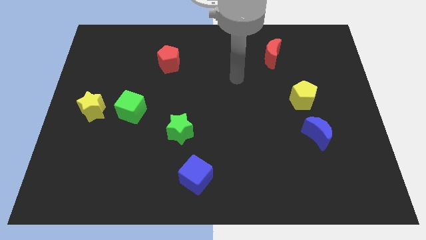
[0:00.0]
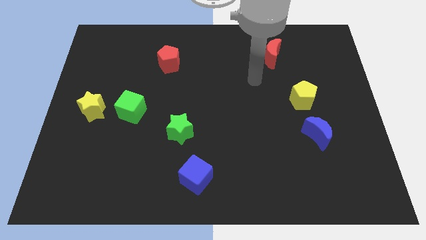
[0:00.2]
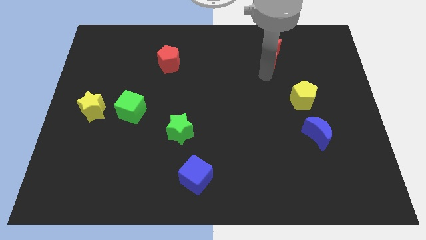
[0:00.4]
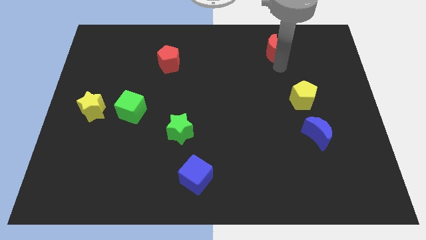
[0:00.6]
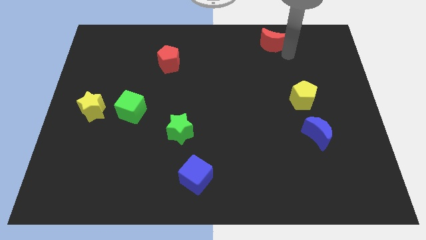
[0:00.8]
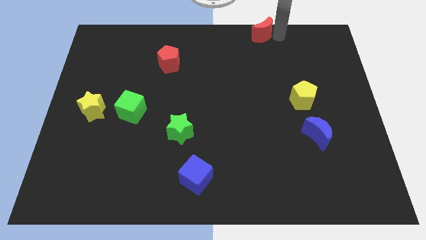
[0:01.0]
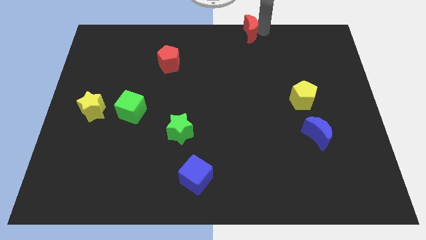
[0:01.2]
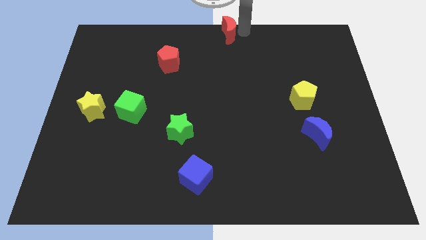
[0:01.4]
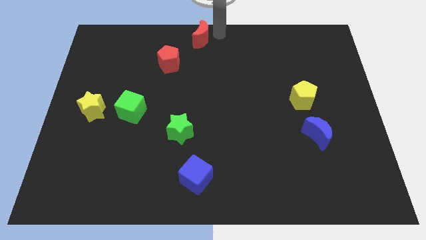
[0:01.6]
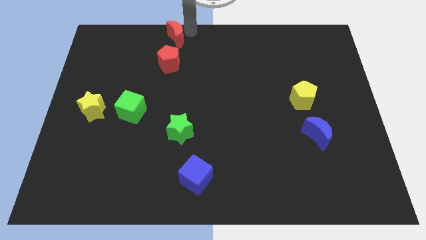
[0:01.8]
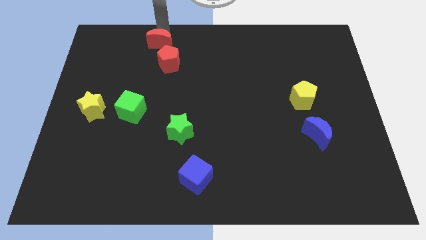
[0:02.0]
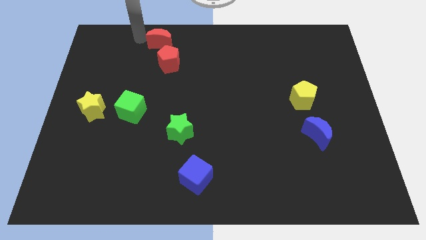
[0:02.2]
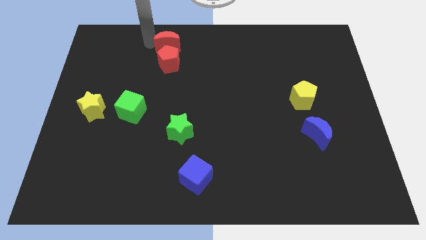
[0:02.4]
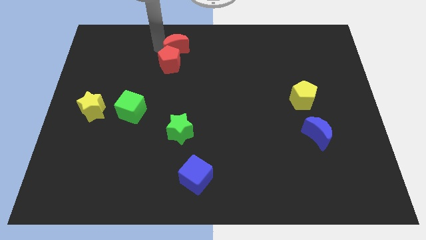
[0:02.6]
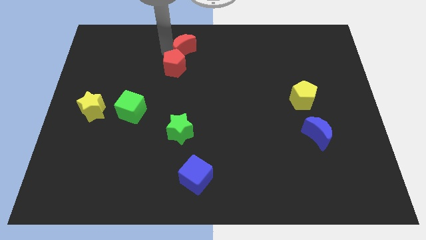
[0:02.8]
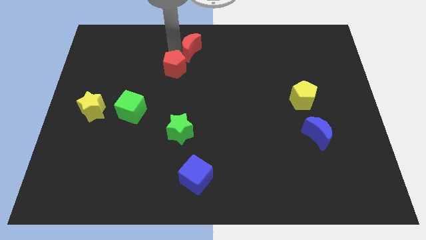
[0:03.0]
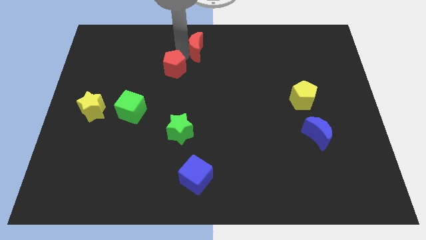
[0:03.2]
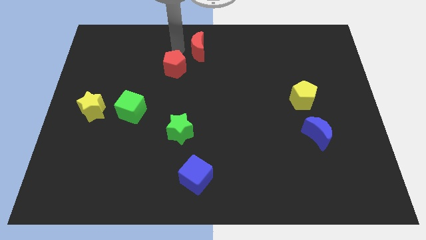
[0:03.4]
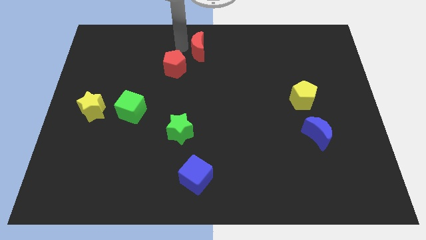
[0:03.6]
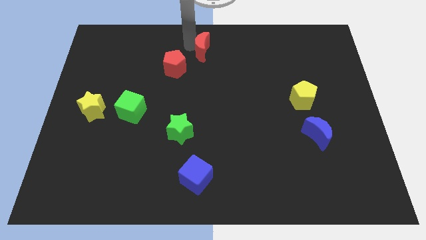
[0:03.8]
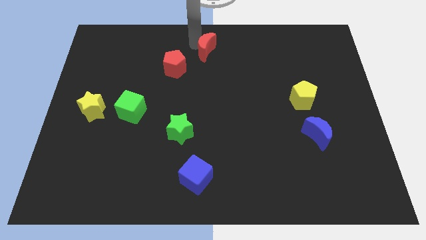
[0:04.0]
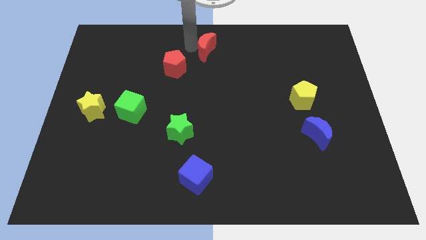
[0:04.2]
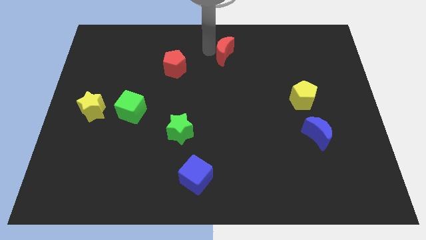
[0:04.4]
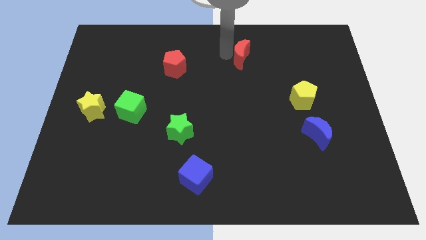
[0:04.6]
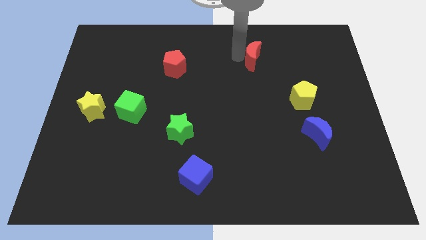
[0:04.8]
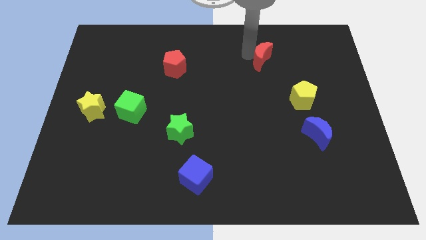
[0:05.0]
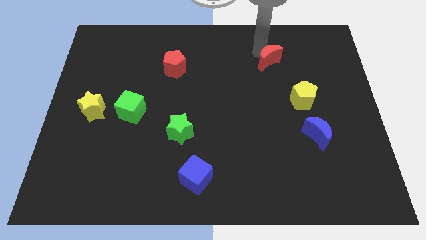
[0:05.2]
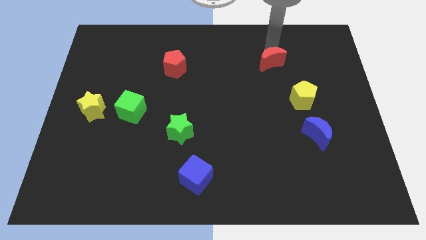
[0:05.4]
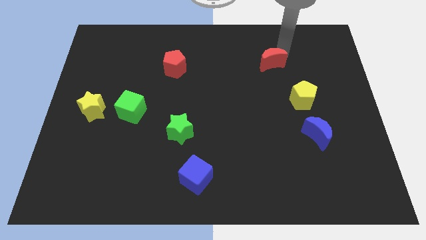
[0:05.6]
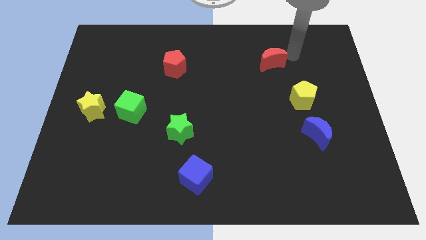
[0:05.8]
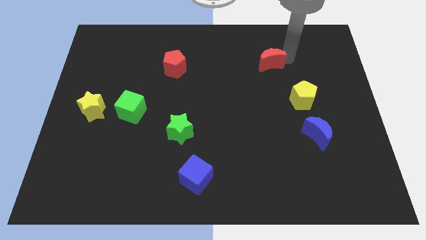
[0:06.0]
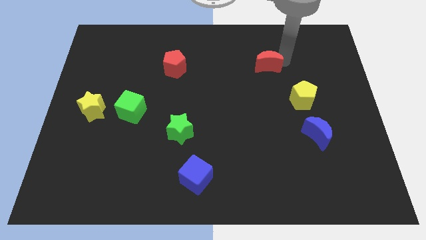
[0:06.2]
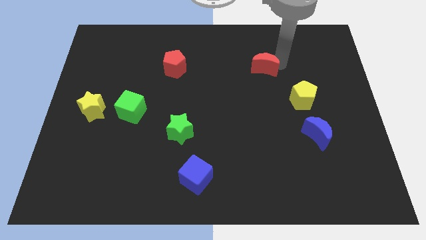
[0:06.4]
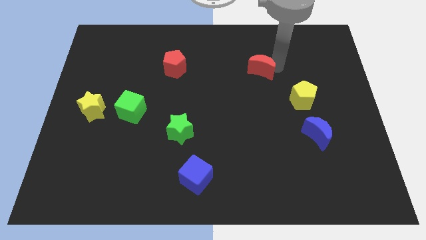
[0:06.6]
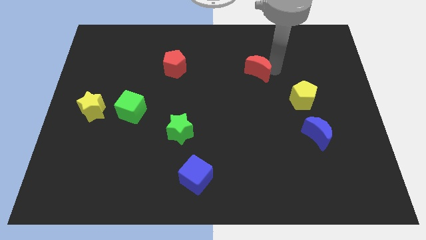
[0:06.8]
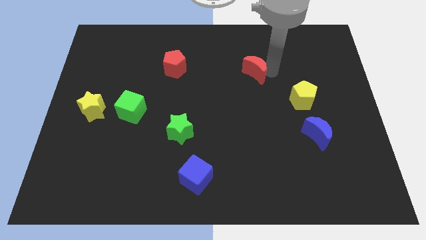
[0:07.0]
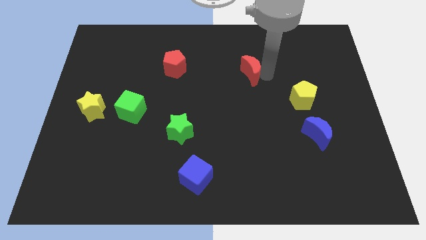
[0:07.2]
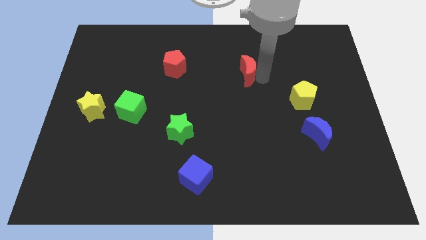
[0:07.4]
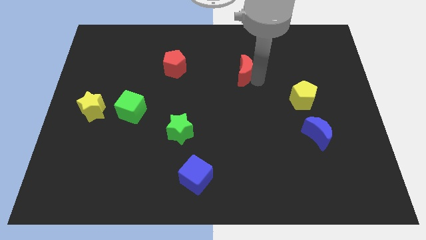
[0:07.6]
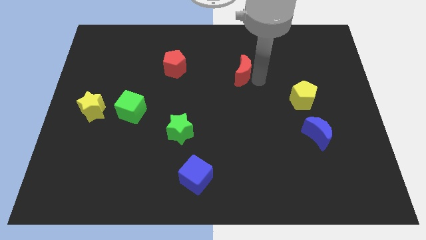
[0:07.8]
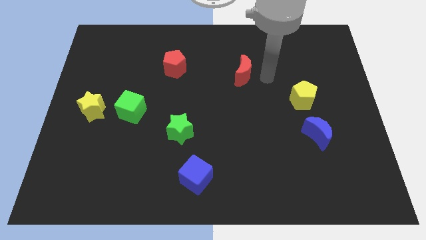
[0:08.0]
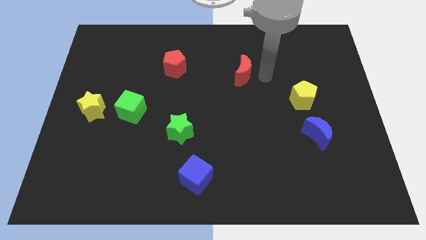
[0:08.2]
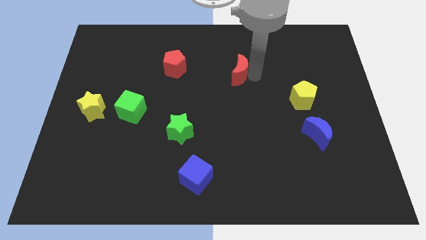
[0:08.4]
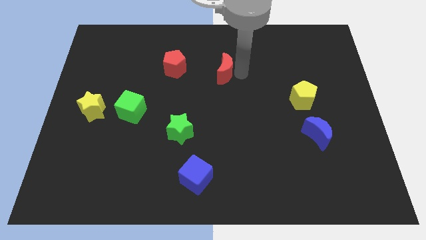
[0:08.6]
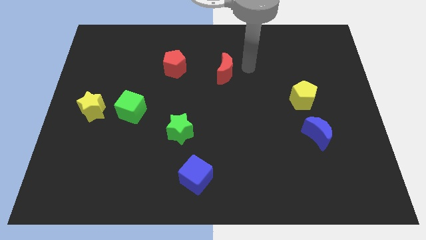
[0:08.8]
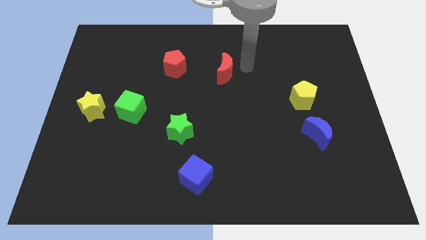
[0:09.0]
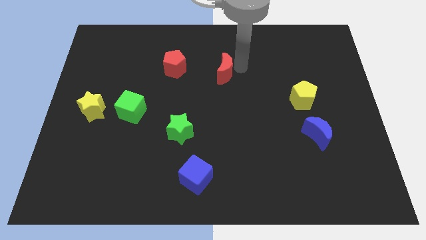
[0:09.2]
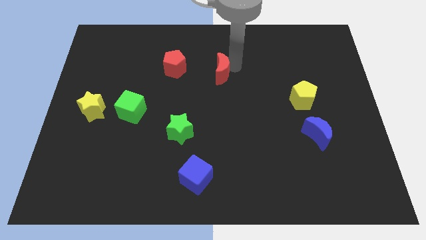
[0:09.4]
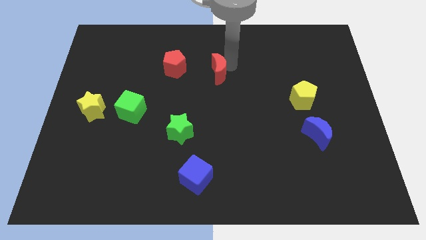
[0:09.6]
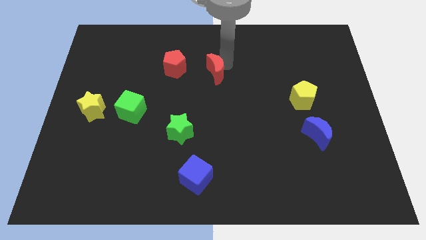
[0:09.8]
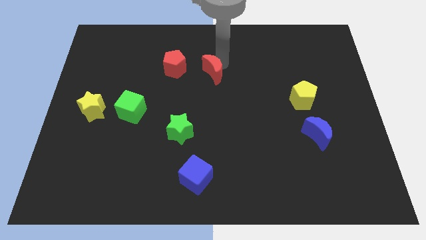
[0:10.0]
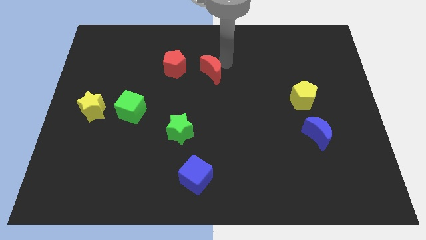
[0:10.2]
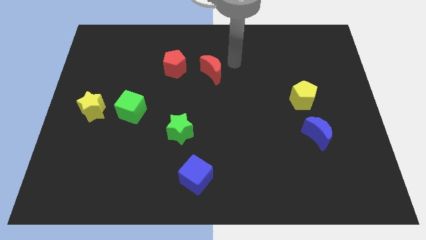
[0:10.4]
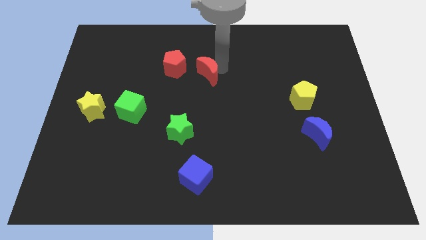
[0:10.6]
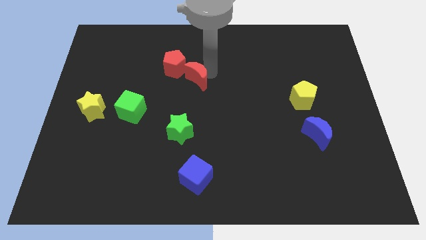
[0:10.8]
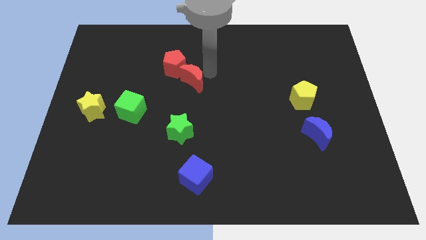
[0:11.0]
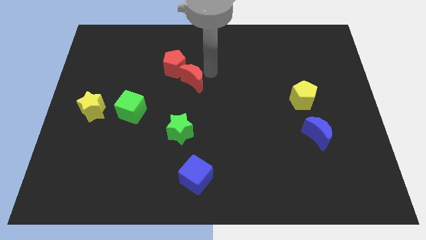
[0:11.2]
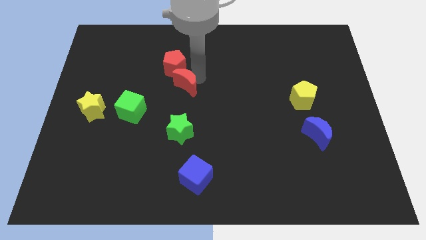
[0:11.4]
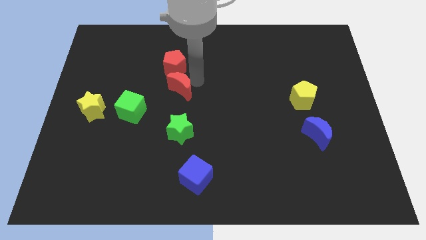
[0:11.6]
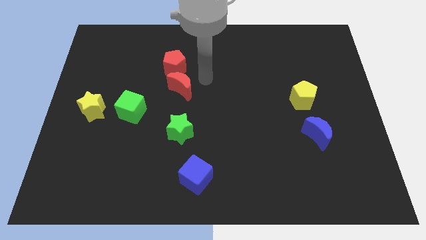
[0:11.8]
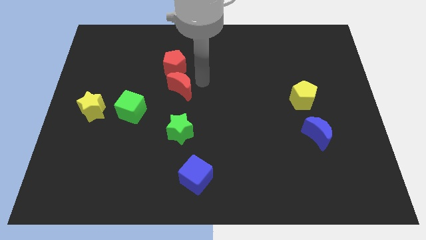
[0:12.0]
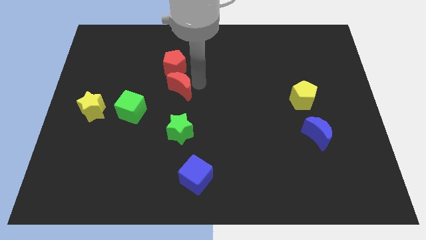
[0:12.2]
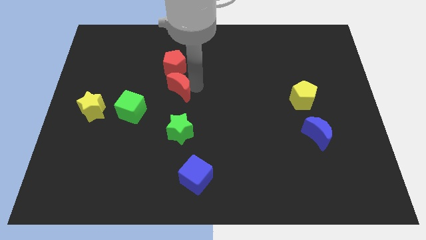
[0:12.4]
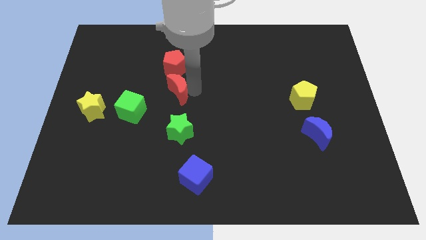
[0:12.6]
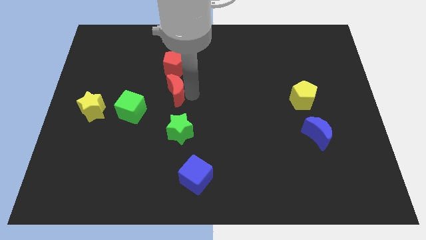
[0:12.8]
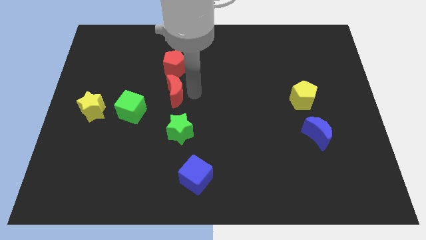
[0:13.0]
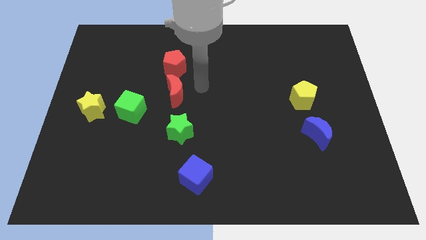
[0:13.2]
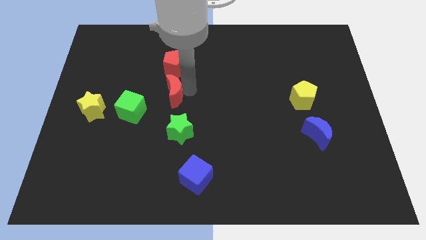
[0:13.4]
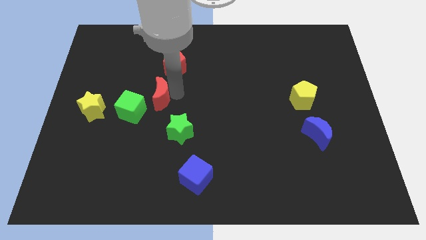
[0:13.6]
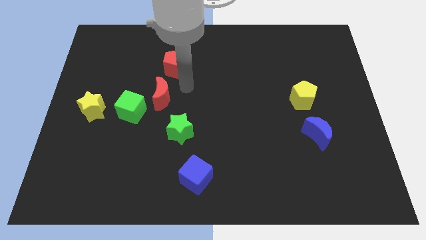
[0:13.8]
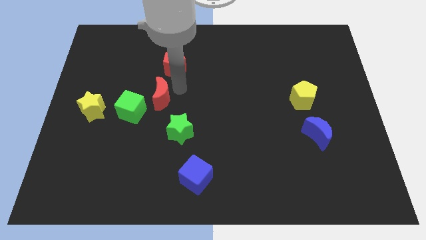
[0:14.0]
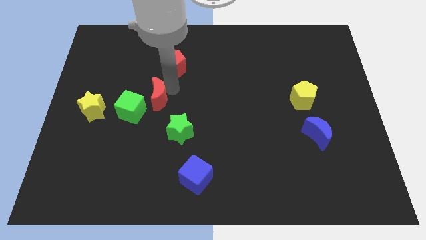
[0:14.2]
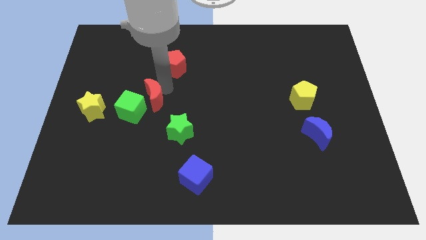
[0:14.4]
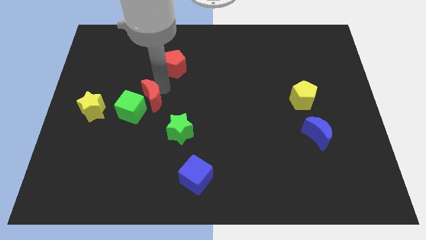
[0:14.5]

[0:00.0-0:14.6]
push the red moon to the green cube

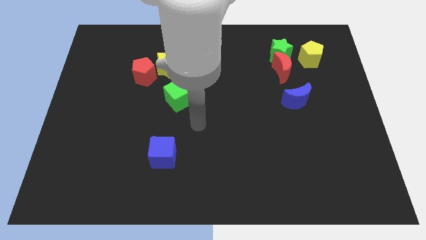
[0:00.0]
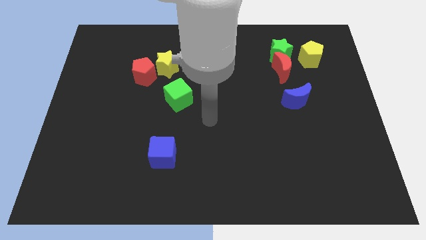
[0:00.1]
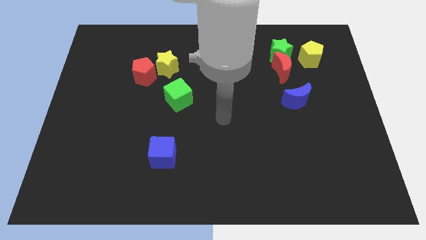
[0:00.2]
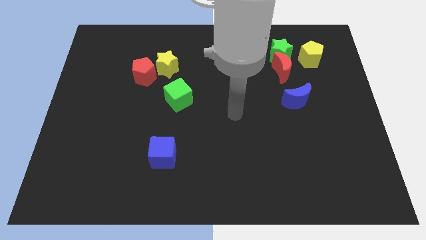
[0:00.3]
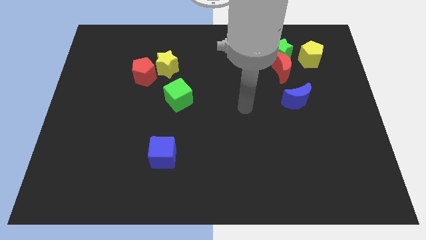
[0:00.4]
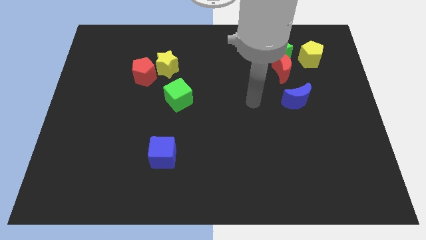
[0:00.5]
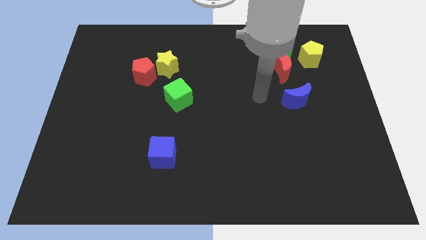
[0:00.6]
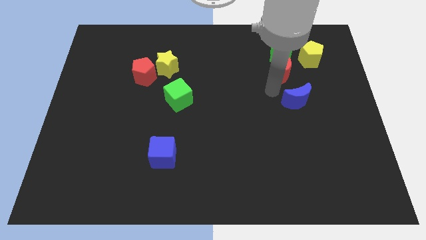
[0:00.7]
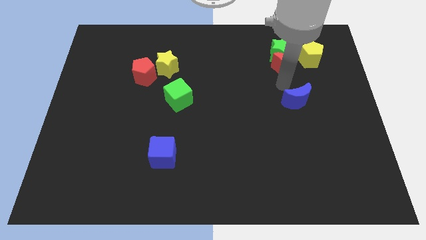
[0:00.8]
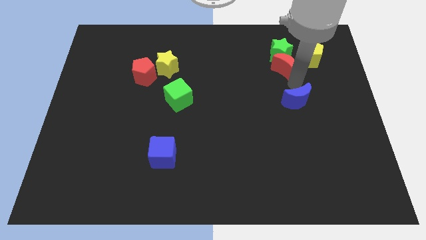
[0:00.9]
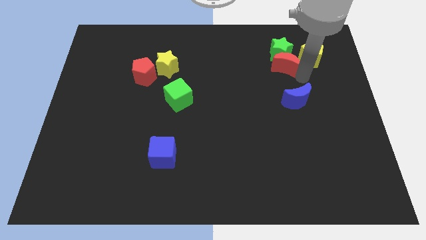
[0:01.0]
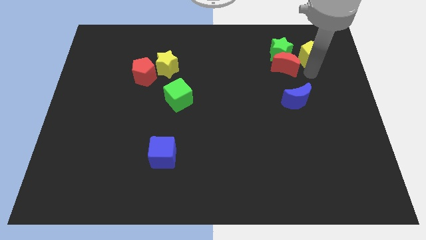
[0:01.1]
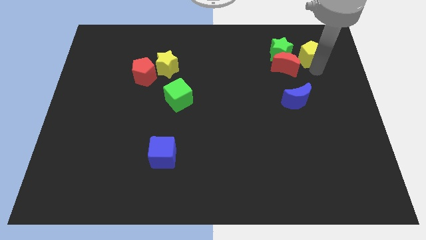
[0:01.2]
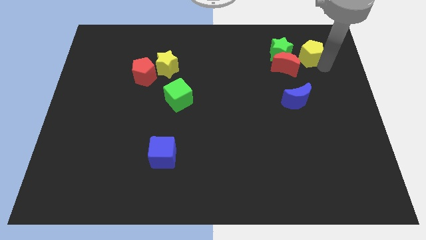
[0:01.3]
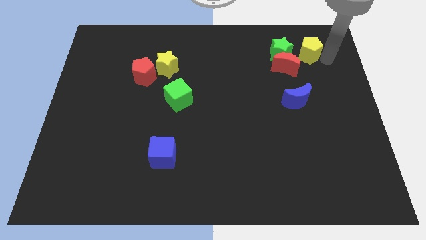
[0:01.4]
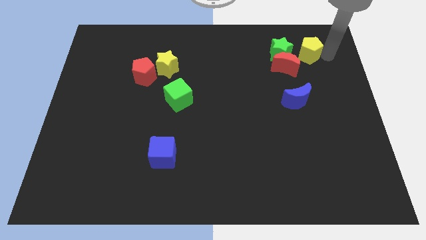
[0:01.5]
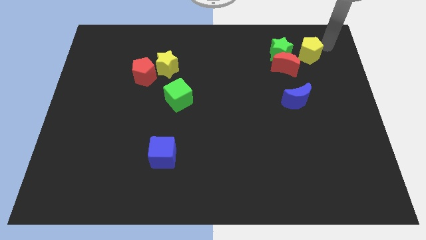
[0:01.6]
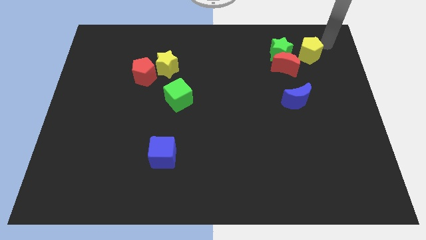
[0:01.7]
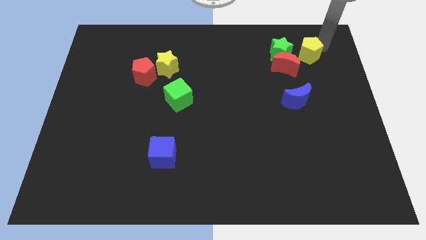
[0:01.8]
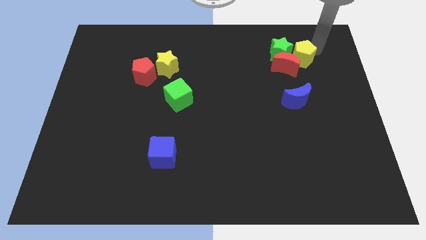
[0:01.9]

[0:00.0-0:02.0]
slide the yellow pentagon close to the red moon
